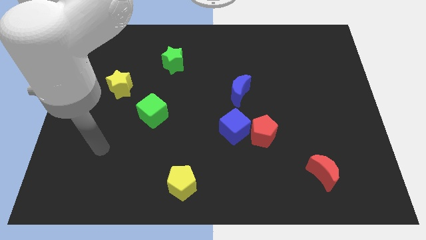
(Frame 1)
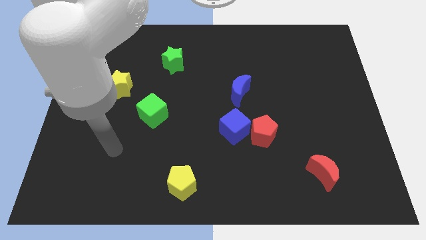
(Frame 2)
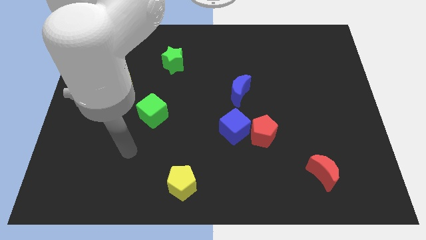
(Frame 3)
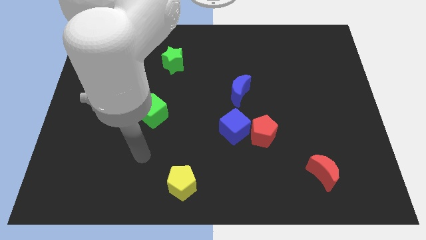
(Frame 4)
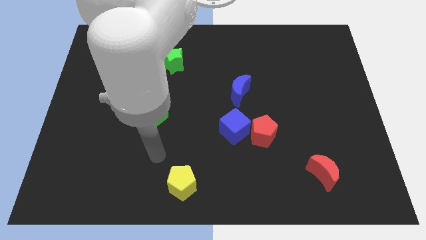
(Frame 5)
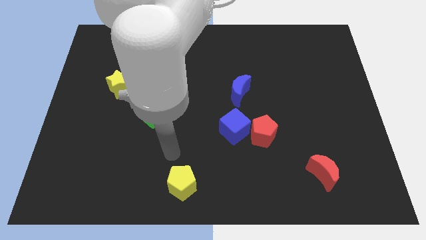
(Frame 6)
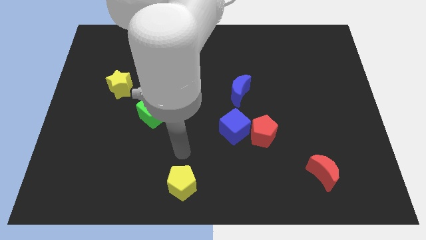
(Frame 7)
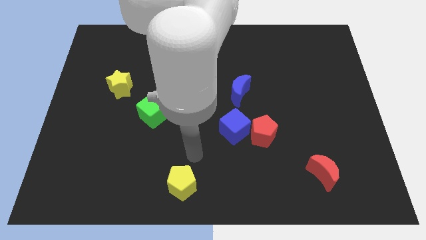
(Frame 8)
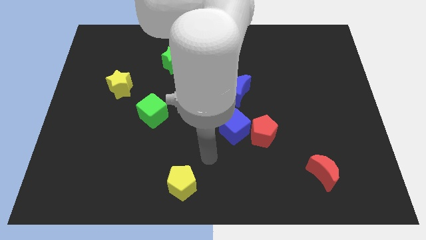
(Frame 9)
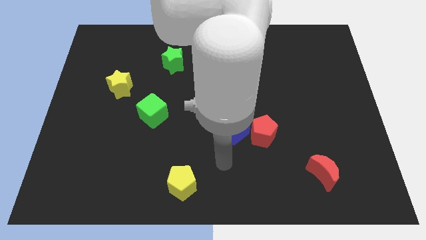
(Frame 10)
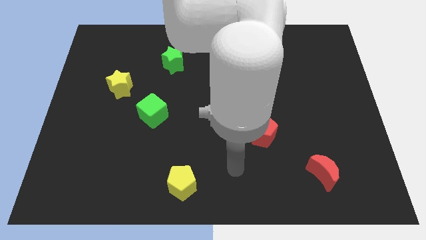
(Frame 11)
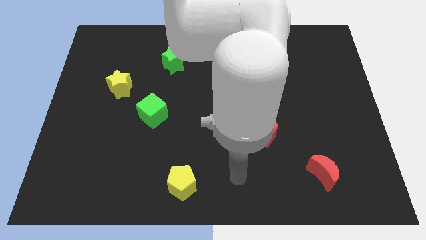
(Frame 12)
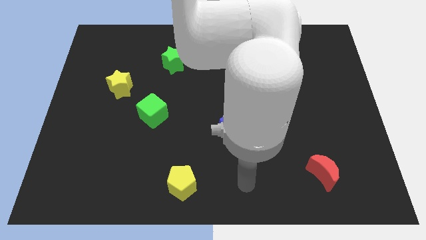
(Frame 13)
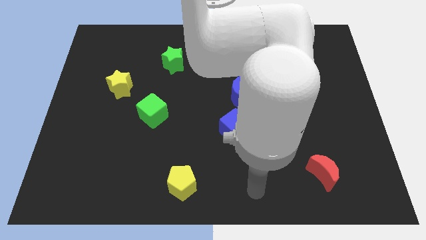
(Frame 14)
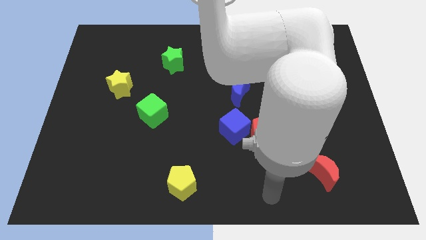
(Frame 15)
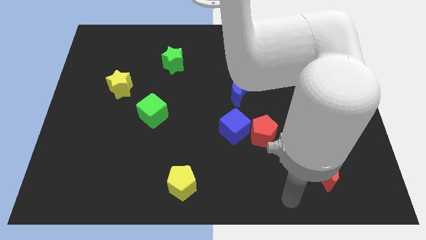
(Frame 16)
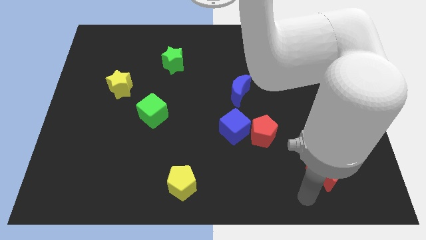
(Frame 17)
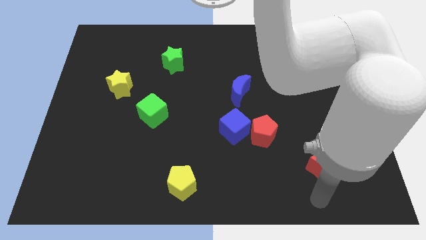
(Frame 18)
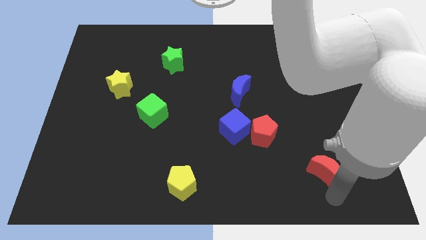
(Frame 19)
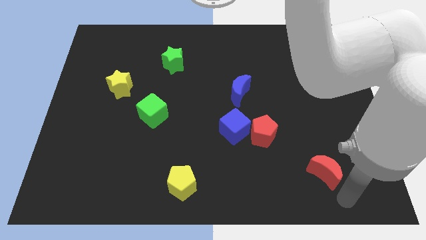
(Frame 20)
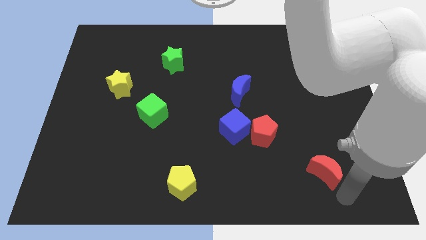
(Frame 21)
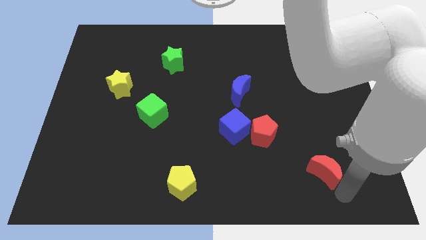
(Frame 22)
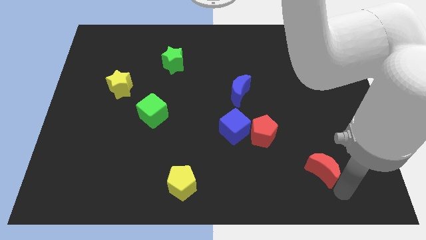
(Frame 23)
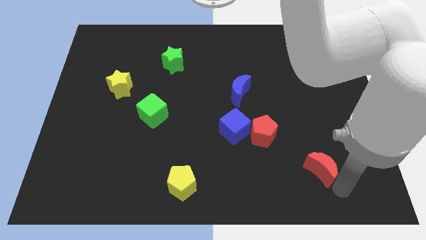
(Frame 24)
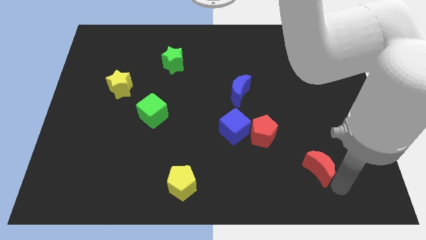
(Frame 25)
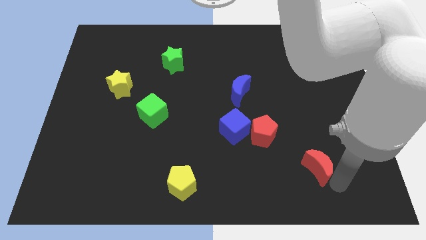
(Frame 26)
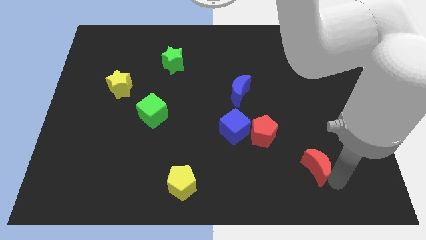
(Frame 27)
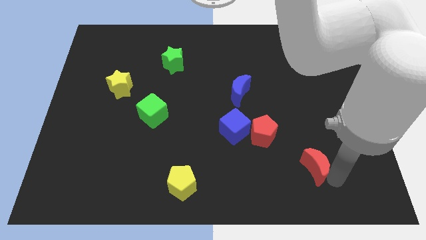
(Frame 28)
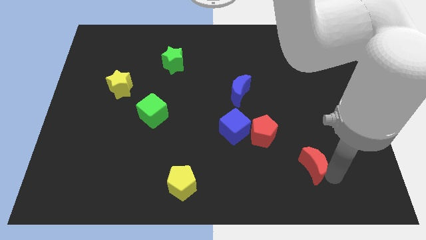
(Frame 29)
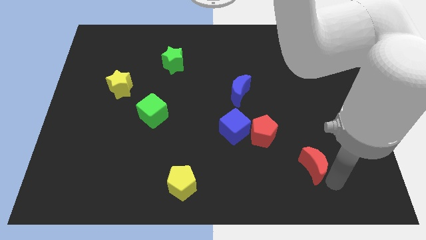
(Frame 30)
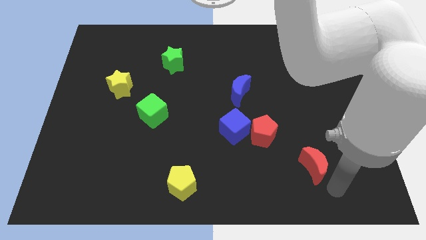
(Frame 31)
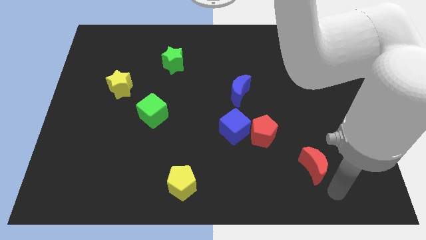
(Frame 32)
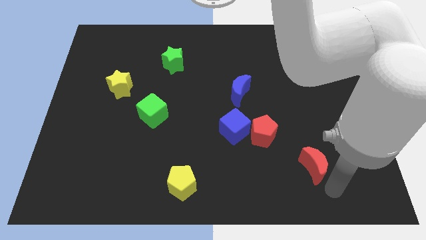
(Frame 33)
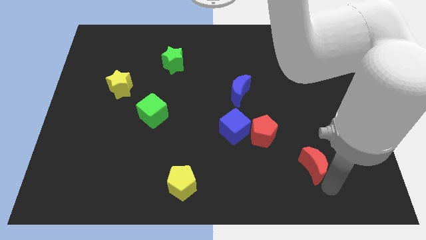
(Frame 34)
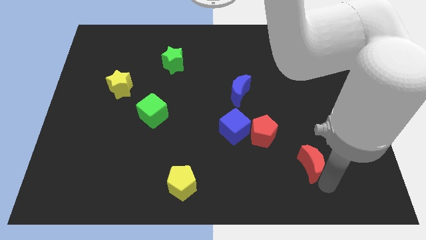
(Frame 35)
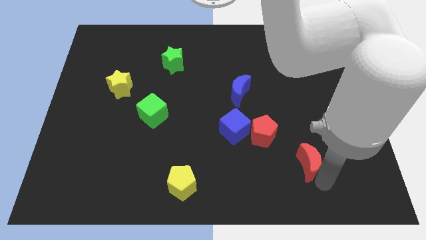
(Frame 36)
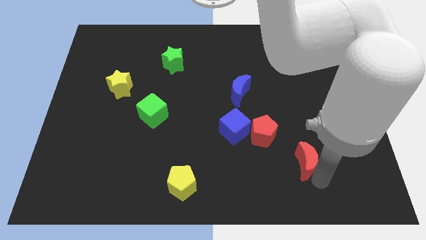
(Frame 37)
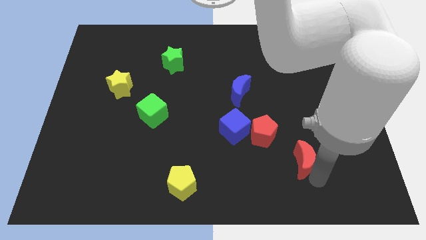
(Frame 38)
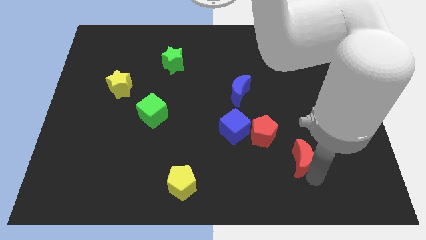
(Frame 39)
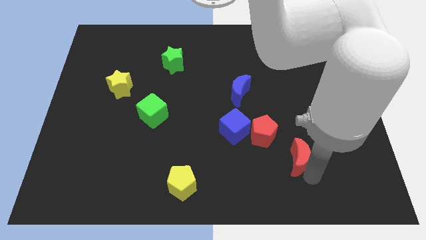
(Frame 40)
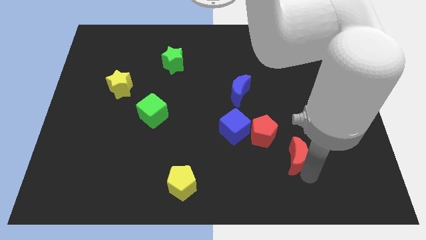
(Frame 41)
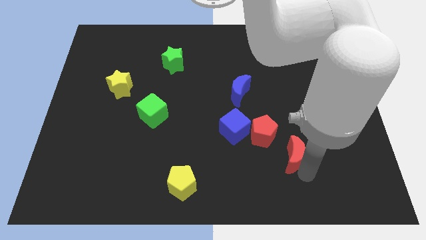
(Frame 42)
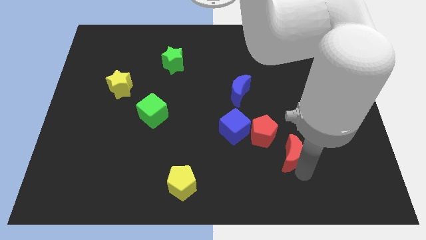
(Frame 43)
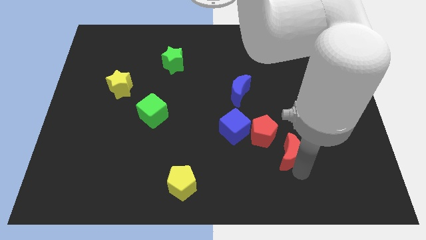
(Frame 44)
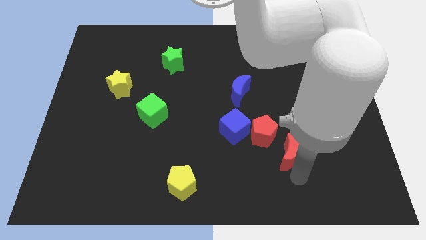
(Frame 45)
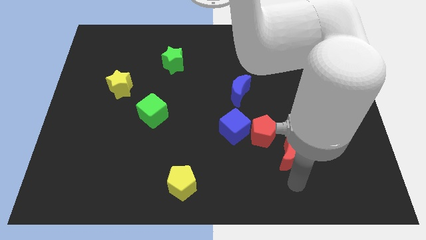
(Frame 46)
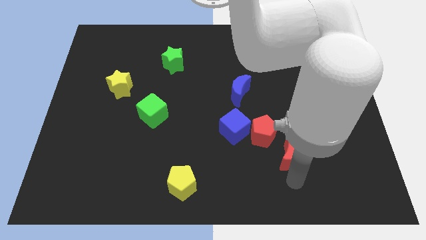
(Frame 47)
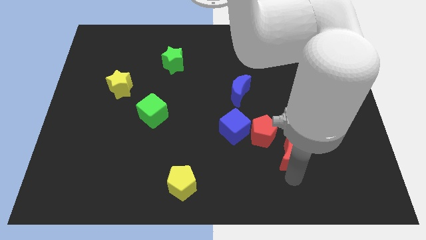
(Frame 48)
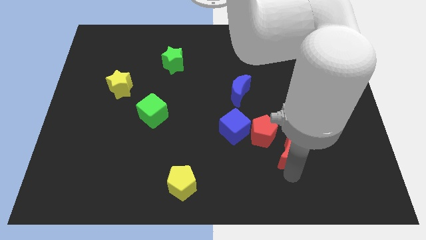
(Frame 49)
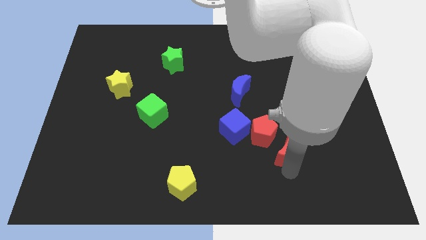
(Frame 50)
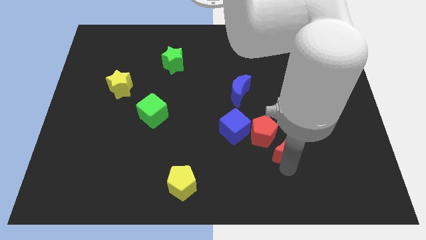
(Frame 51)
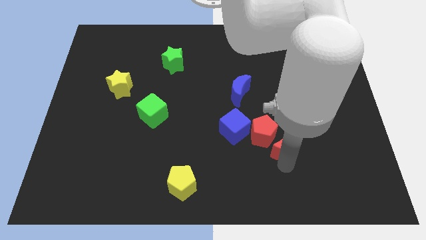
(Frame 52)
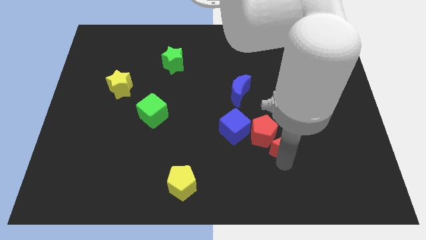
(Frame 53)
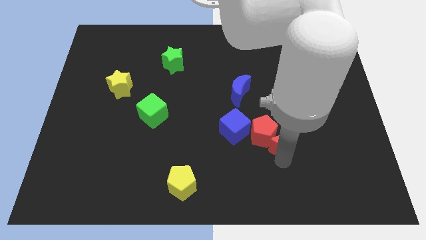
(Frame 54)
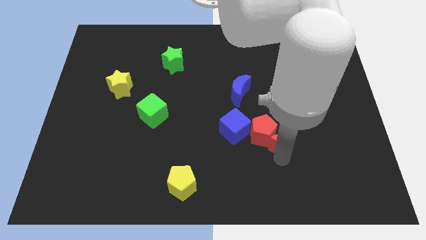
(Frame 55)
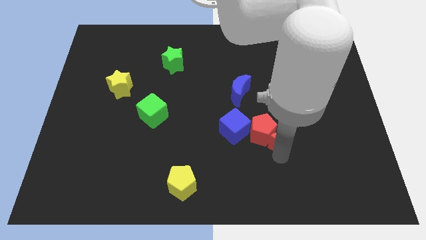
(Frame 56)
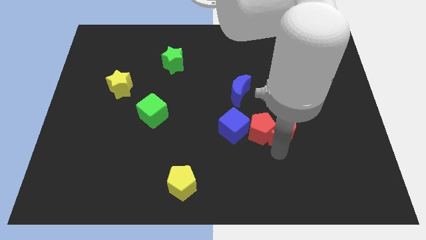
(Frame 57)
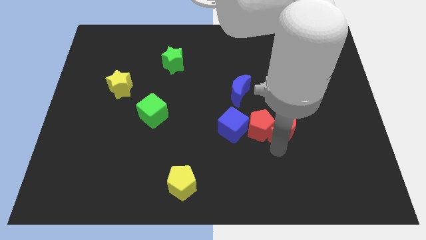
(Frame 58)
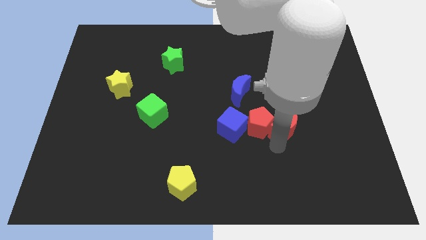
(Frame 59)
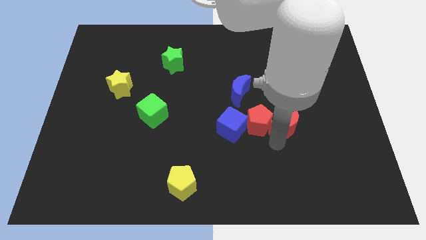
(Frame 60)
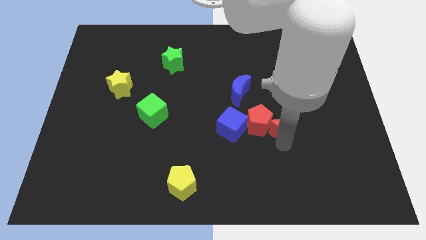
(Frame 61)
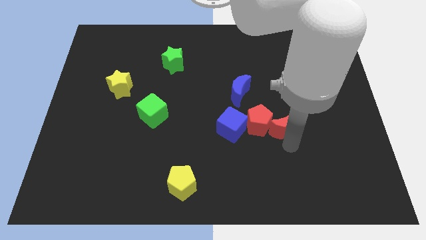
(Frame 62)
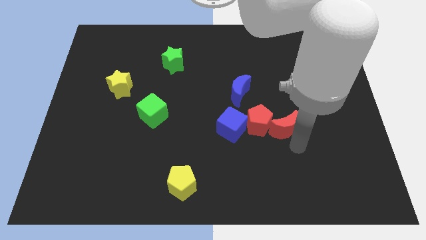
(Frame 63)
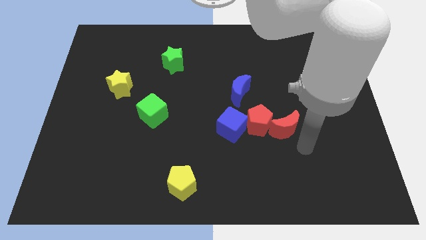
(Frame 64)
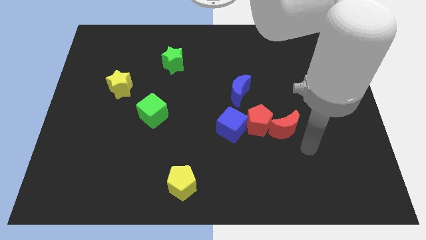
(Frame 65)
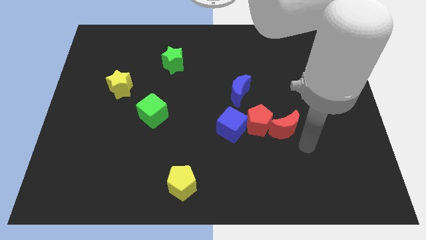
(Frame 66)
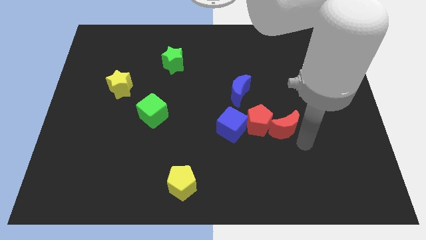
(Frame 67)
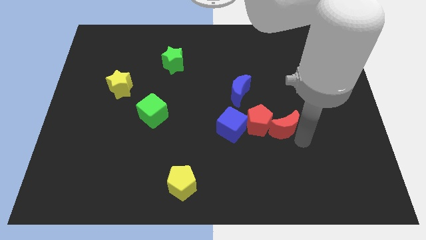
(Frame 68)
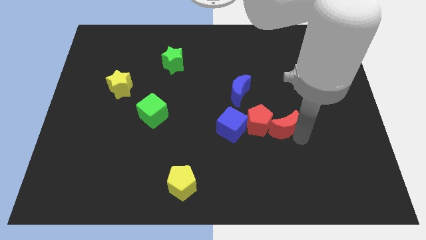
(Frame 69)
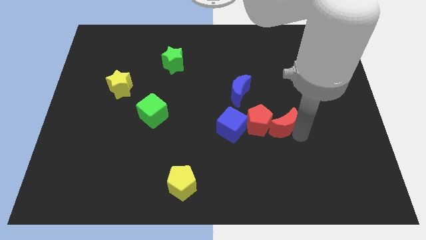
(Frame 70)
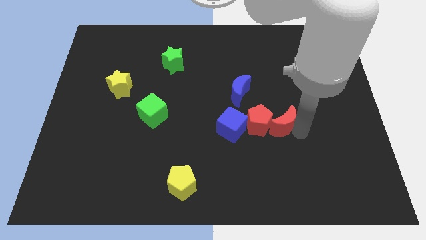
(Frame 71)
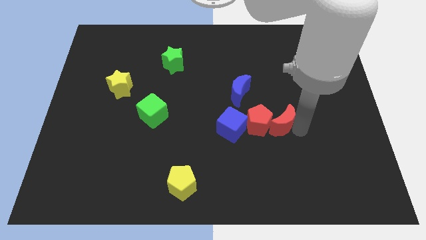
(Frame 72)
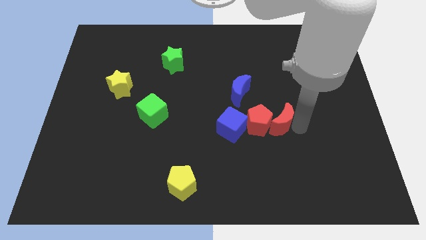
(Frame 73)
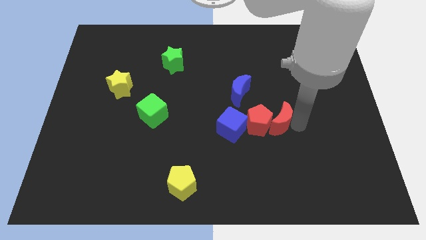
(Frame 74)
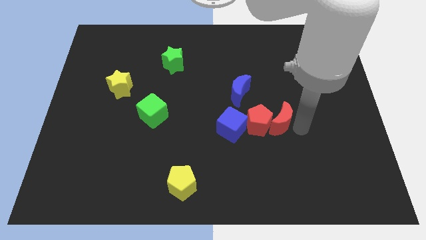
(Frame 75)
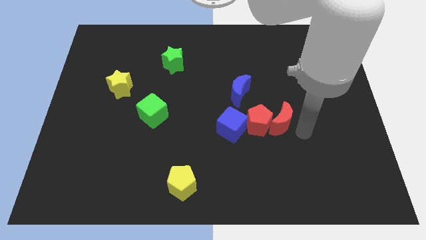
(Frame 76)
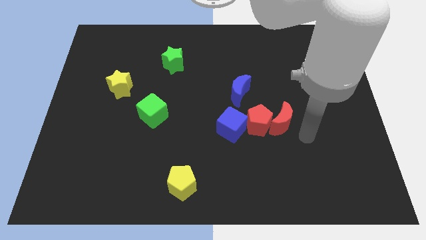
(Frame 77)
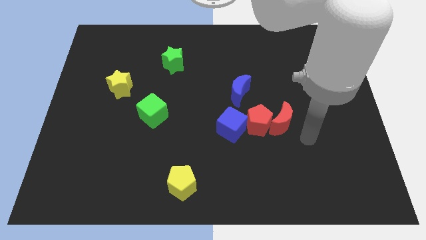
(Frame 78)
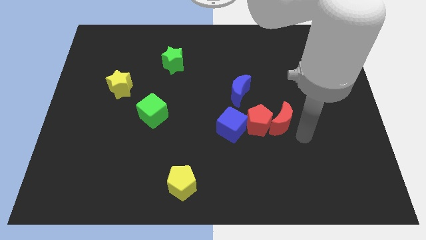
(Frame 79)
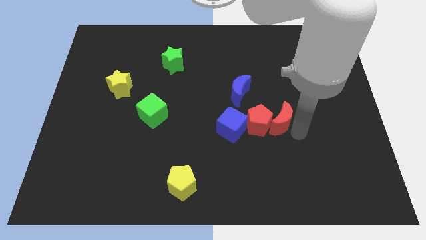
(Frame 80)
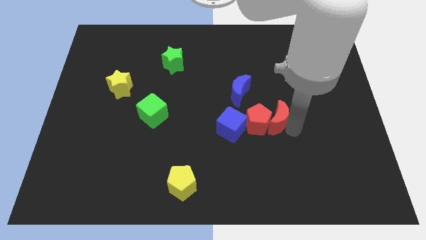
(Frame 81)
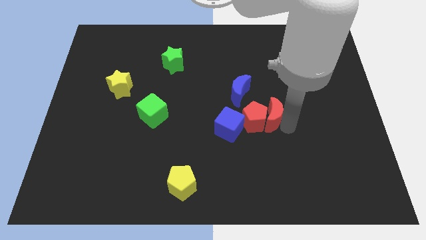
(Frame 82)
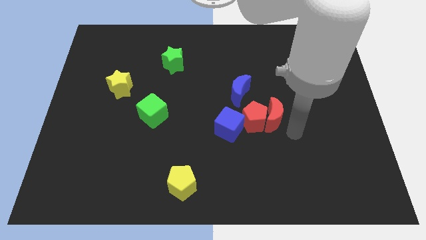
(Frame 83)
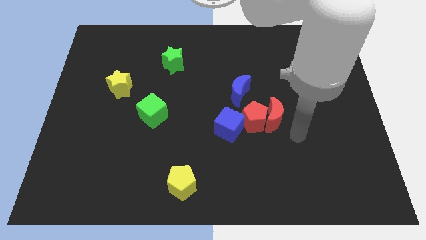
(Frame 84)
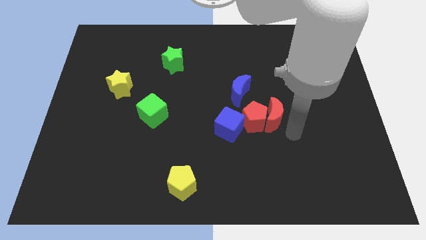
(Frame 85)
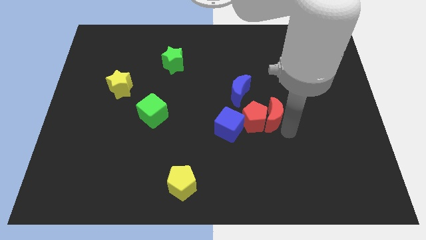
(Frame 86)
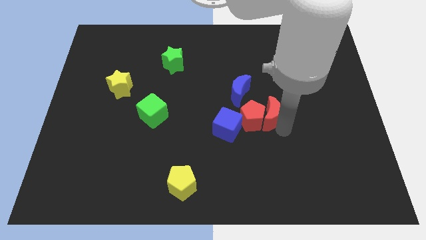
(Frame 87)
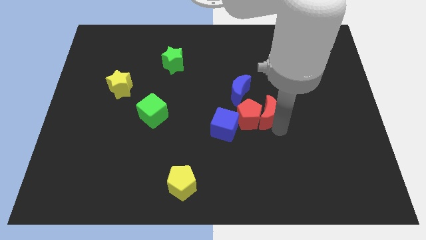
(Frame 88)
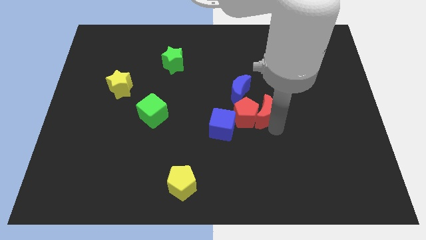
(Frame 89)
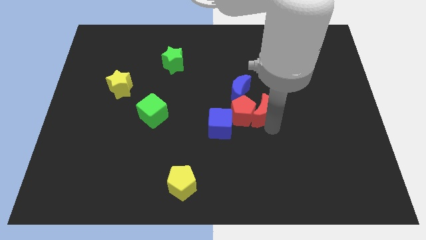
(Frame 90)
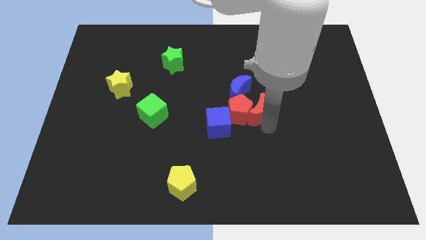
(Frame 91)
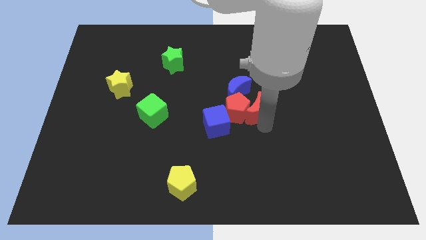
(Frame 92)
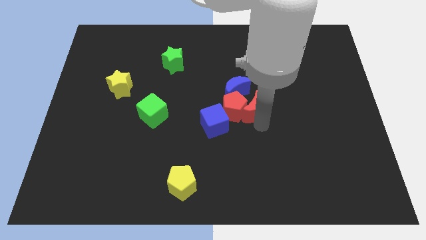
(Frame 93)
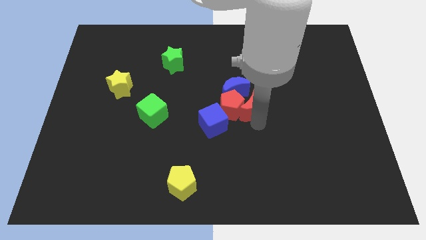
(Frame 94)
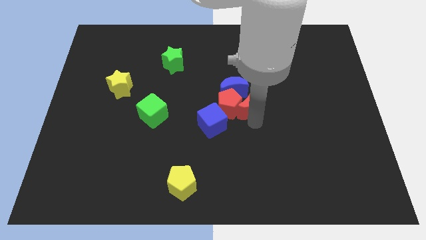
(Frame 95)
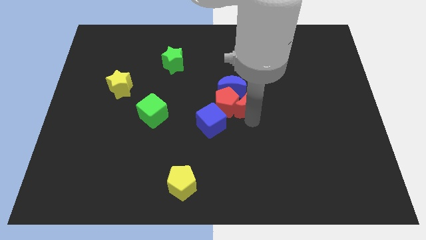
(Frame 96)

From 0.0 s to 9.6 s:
put the red moon close to the blue moon
